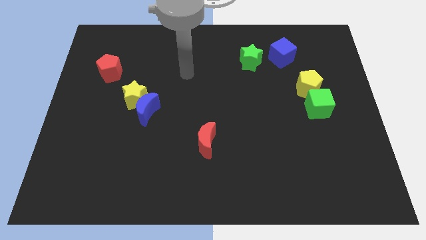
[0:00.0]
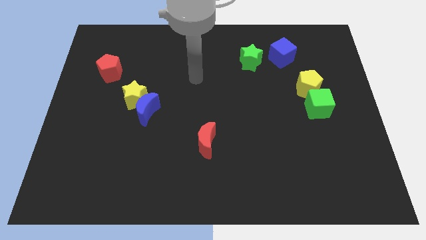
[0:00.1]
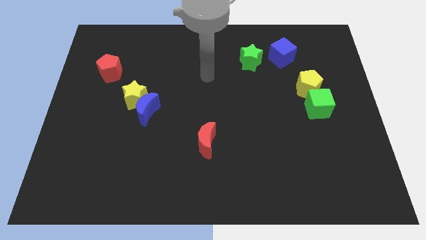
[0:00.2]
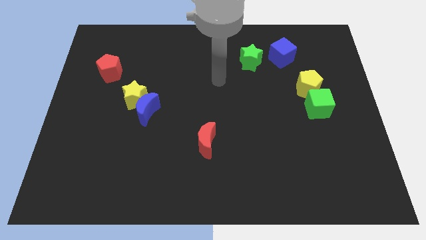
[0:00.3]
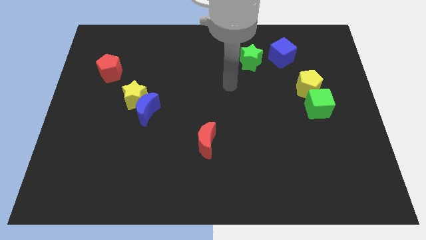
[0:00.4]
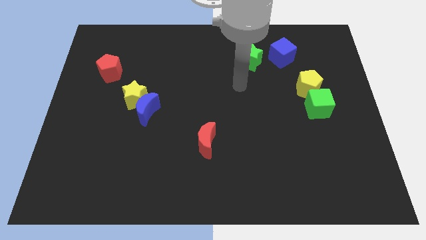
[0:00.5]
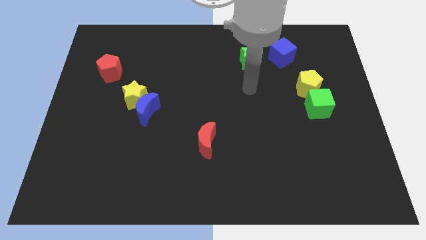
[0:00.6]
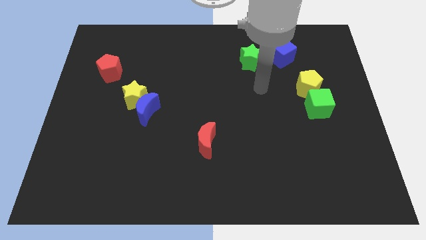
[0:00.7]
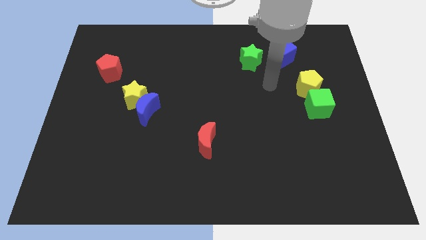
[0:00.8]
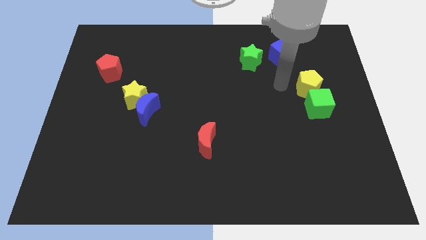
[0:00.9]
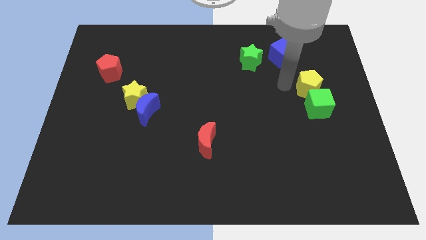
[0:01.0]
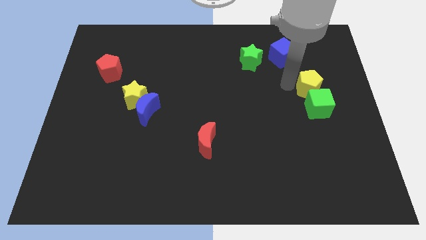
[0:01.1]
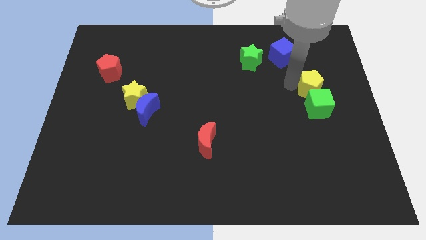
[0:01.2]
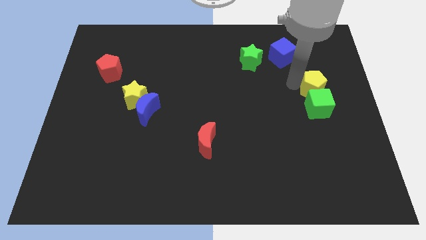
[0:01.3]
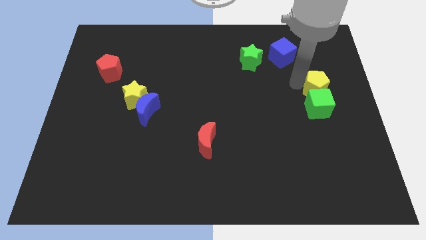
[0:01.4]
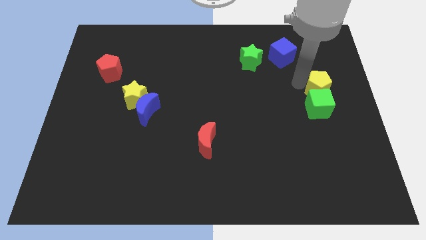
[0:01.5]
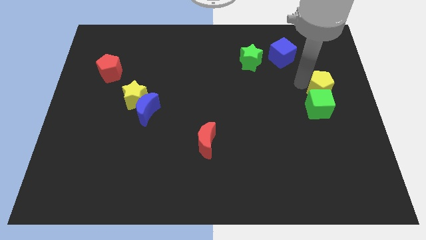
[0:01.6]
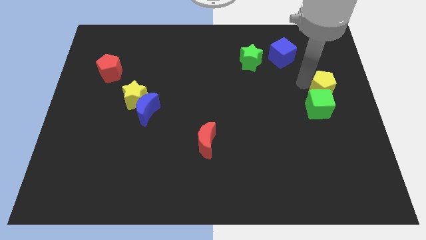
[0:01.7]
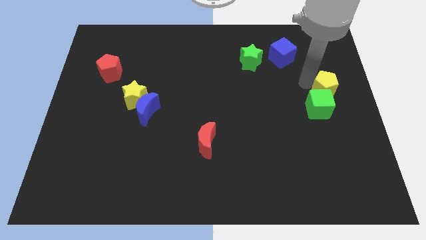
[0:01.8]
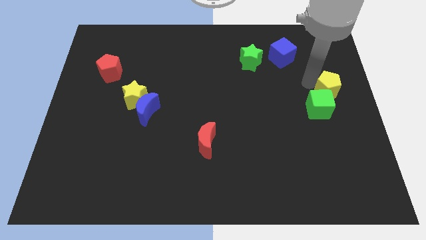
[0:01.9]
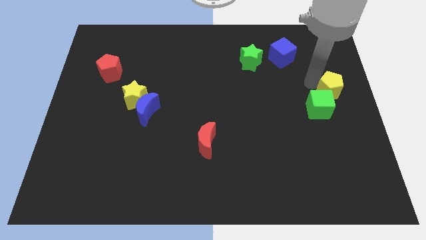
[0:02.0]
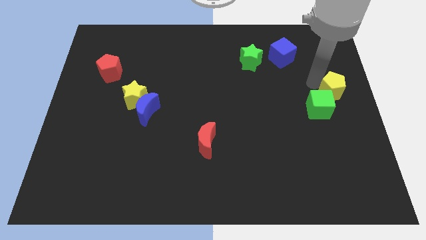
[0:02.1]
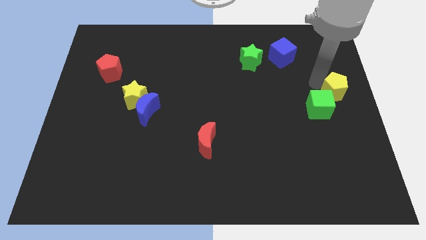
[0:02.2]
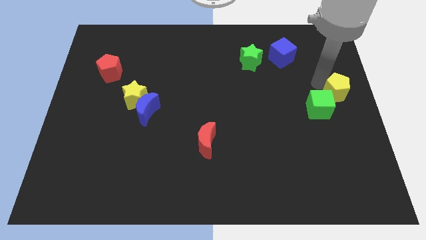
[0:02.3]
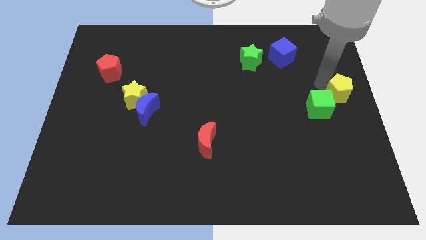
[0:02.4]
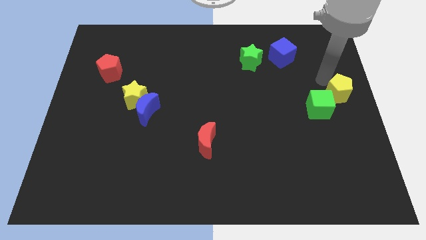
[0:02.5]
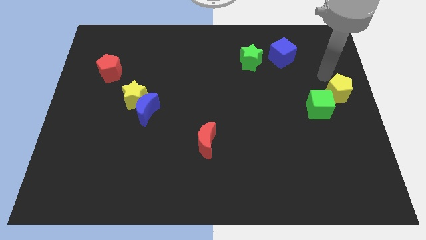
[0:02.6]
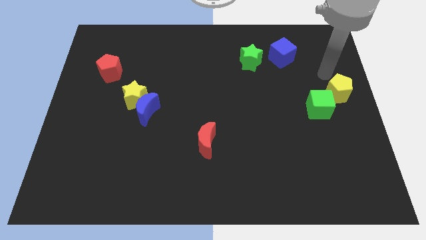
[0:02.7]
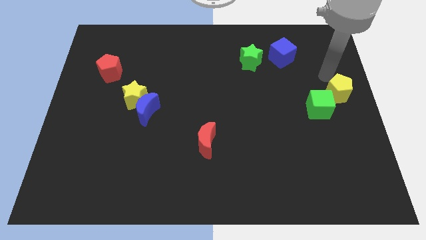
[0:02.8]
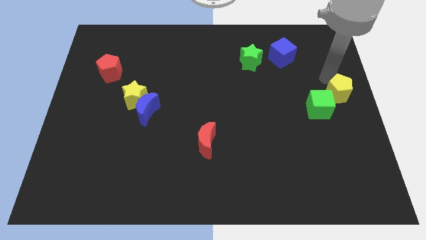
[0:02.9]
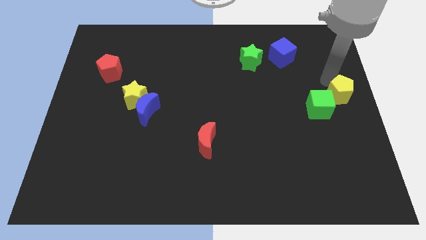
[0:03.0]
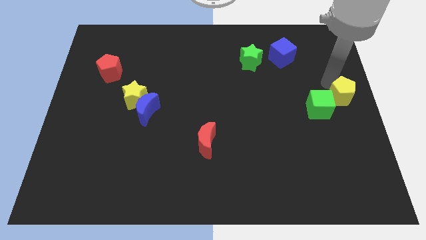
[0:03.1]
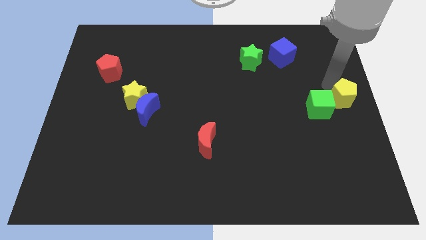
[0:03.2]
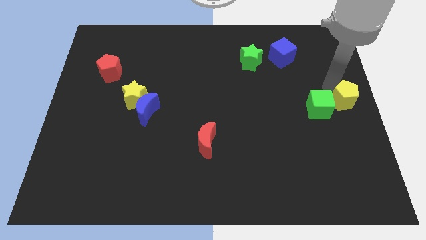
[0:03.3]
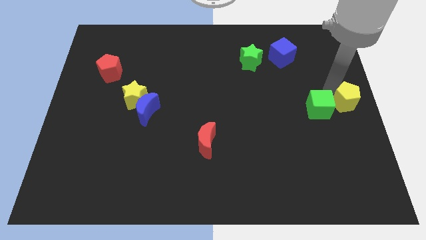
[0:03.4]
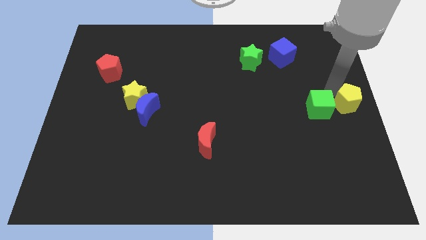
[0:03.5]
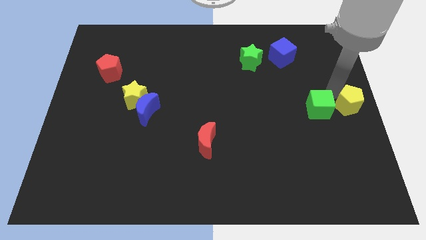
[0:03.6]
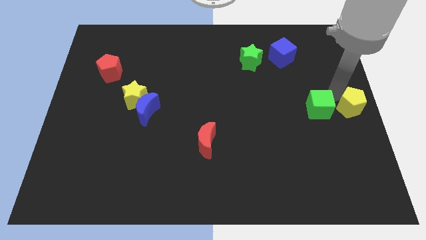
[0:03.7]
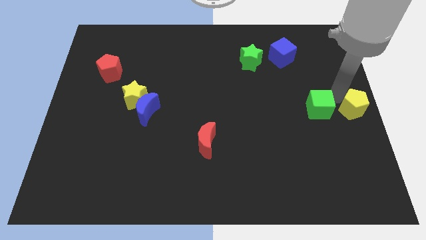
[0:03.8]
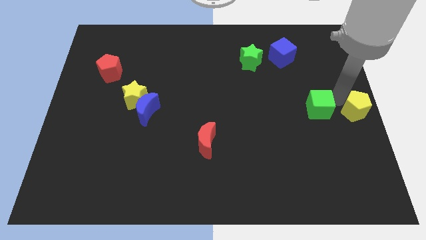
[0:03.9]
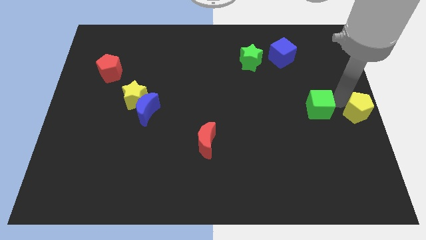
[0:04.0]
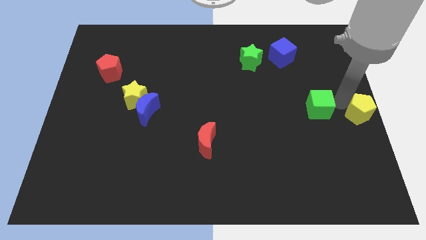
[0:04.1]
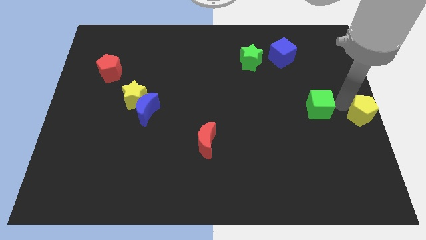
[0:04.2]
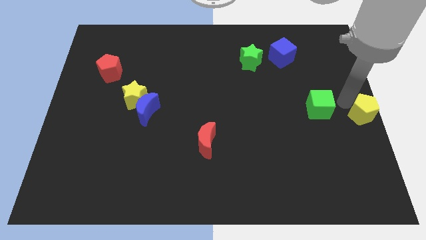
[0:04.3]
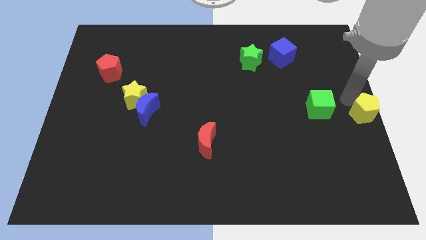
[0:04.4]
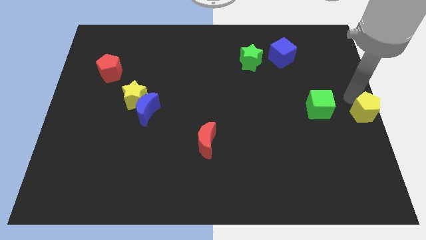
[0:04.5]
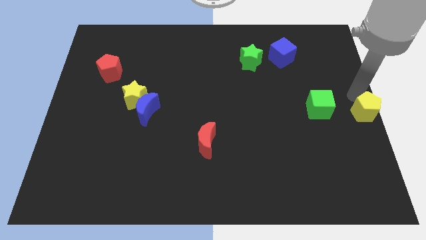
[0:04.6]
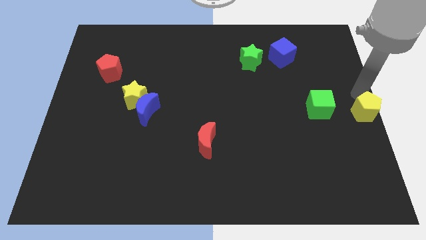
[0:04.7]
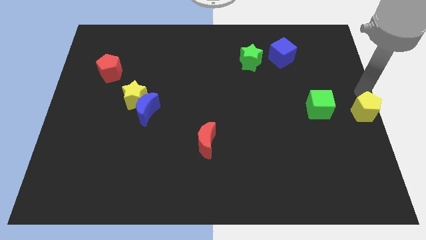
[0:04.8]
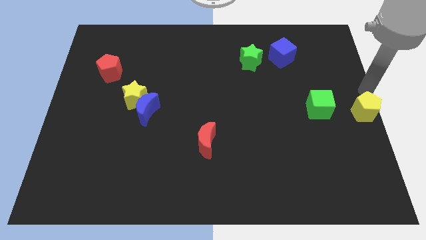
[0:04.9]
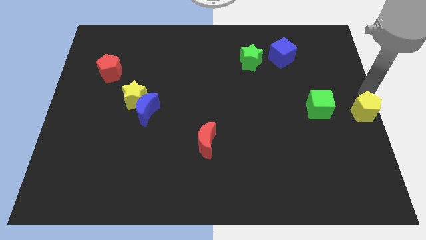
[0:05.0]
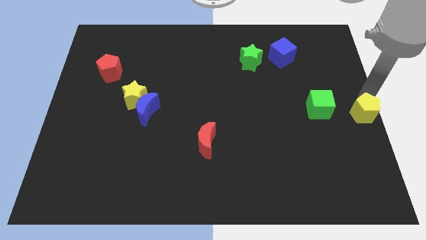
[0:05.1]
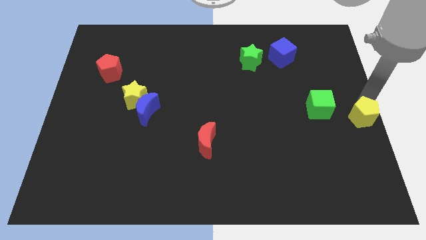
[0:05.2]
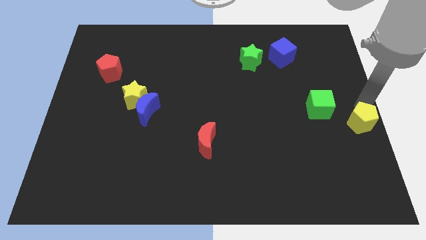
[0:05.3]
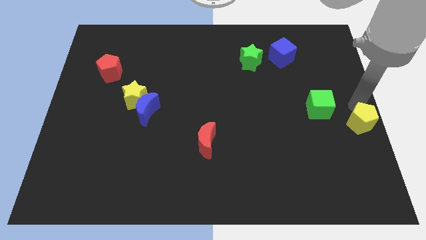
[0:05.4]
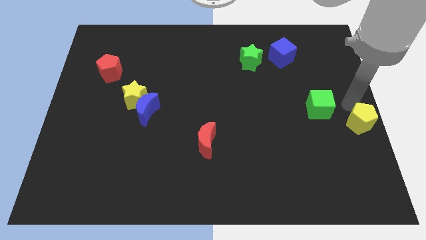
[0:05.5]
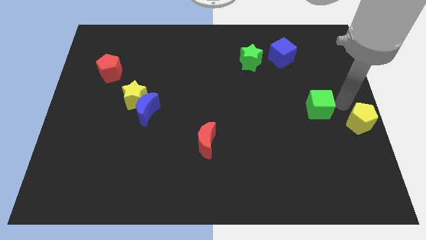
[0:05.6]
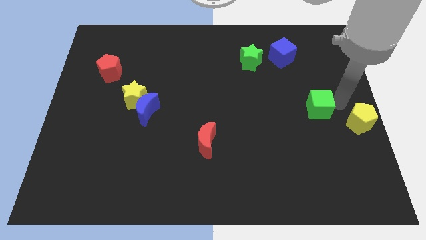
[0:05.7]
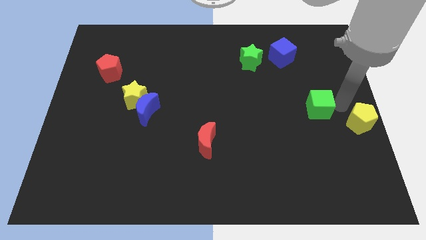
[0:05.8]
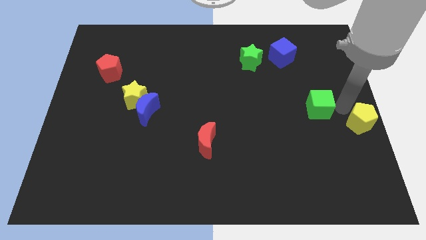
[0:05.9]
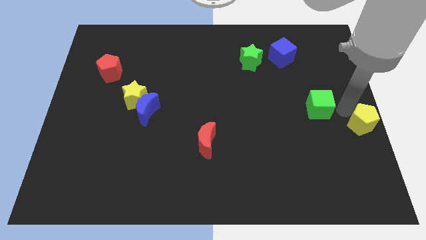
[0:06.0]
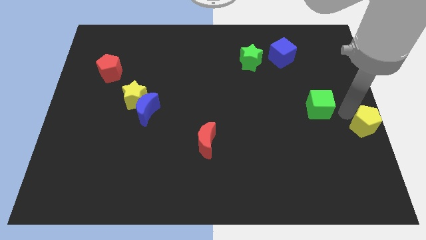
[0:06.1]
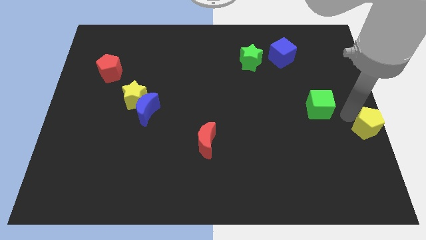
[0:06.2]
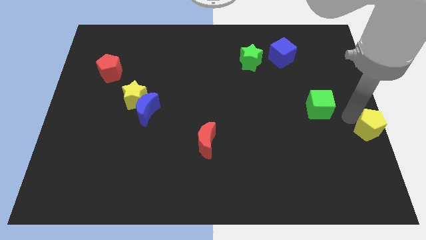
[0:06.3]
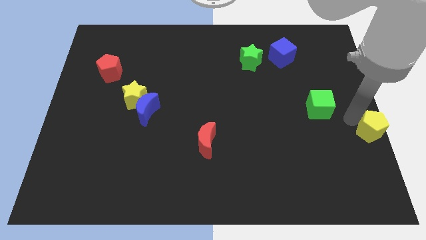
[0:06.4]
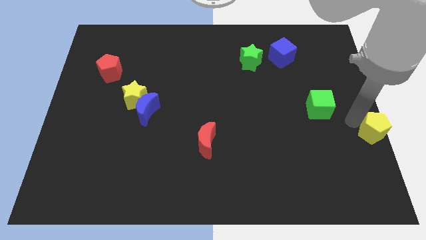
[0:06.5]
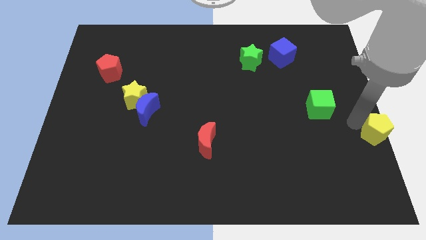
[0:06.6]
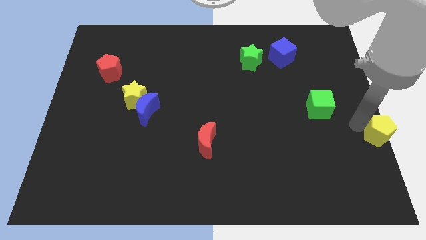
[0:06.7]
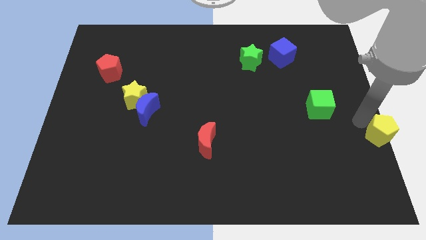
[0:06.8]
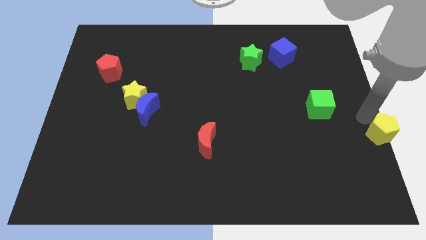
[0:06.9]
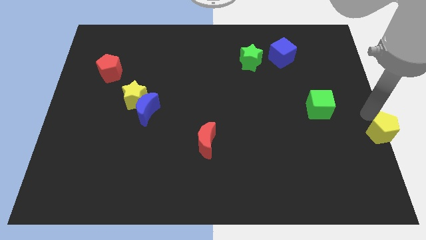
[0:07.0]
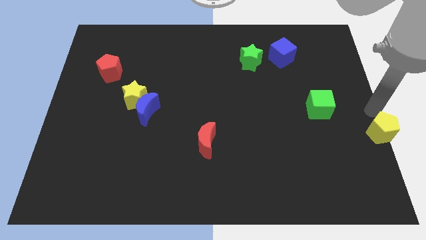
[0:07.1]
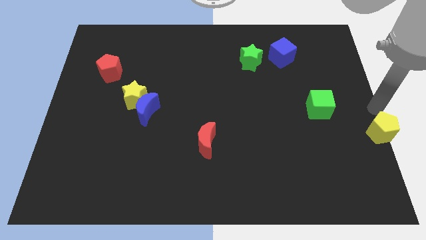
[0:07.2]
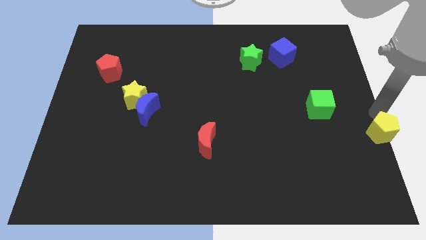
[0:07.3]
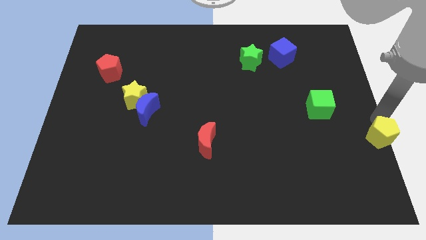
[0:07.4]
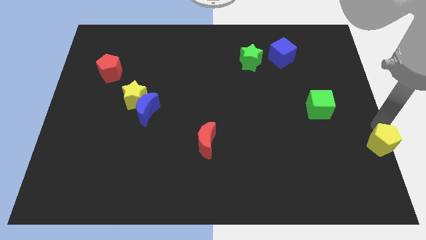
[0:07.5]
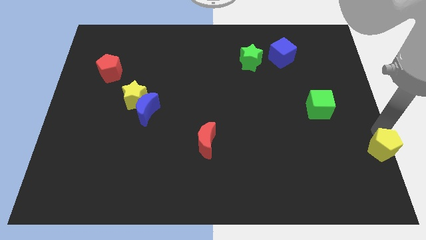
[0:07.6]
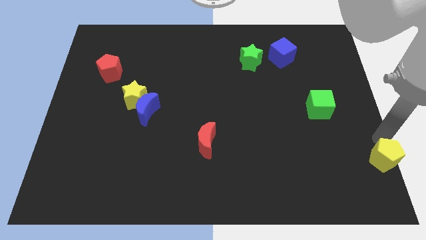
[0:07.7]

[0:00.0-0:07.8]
push the yellow pentagon to the bottom right of the board
